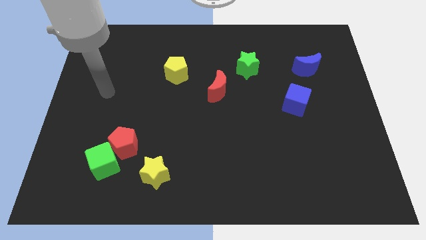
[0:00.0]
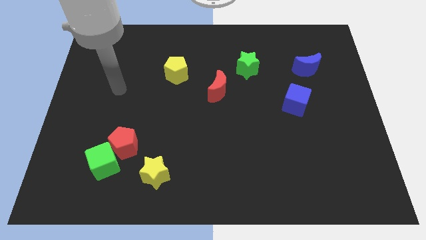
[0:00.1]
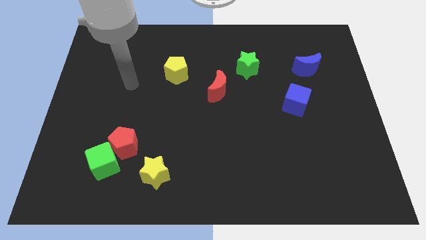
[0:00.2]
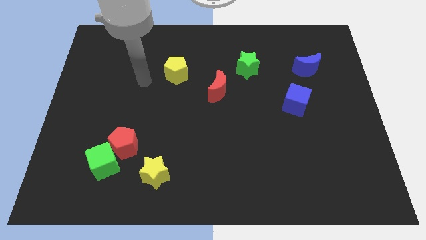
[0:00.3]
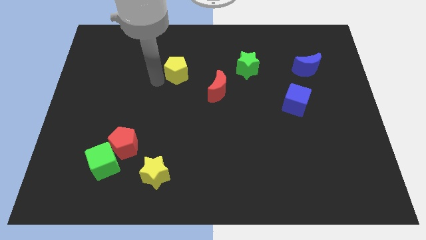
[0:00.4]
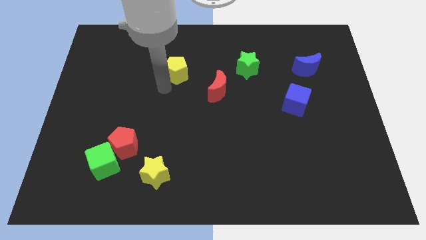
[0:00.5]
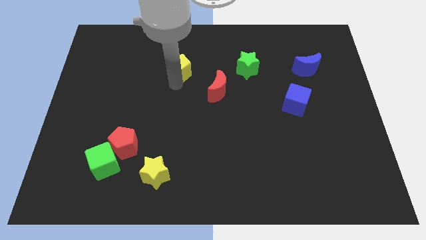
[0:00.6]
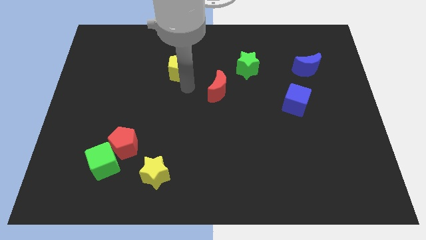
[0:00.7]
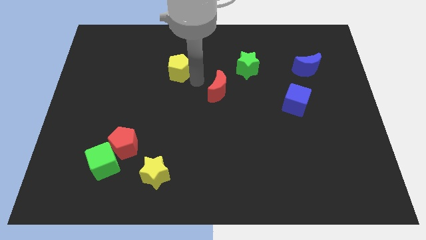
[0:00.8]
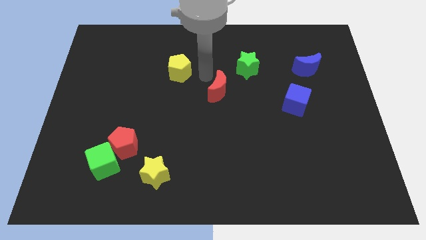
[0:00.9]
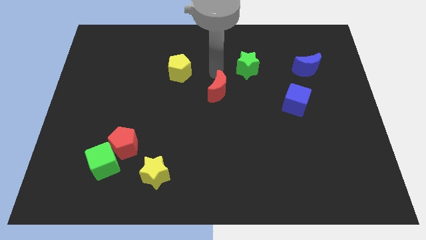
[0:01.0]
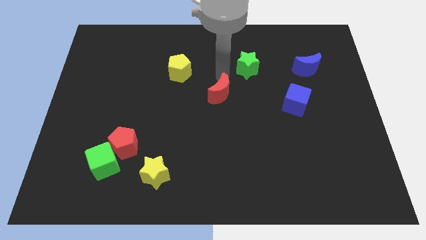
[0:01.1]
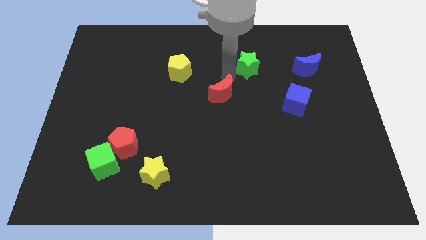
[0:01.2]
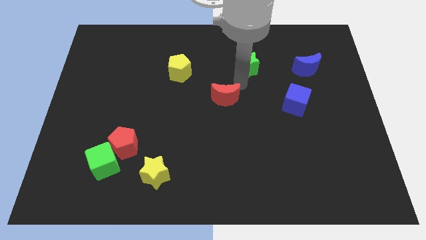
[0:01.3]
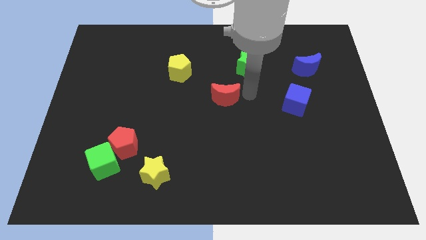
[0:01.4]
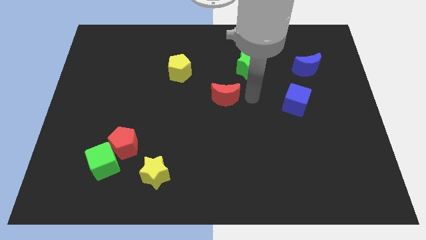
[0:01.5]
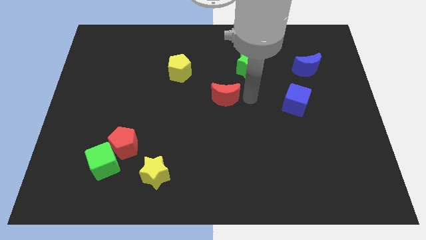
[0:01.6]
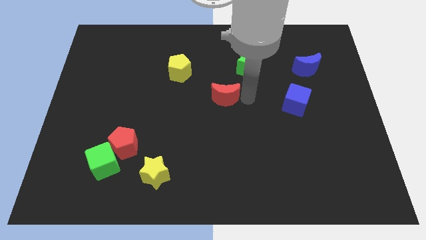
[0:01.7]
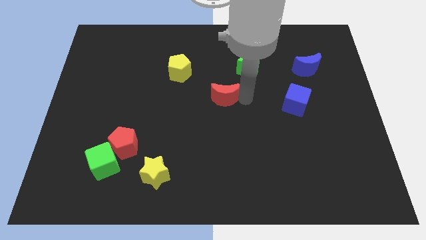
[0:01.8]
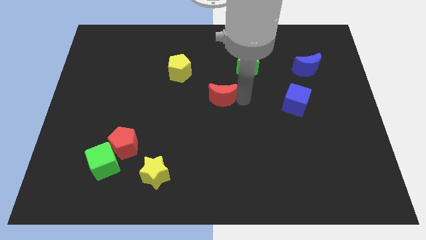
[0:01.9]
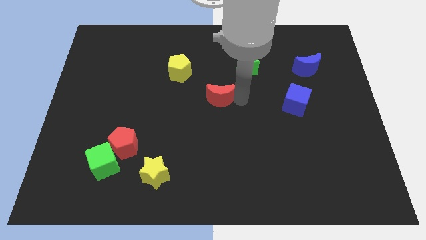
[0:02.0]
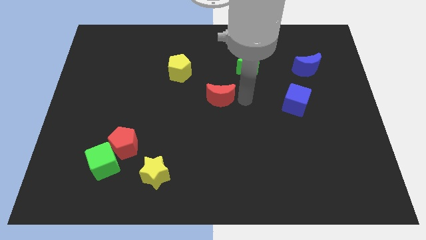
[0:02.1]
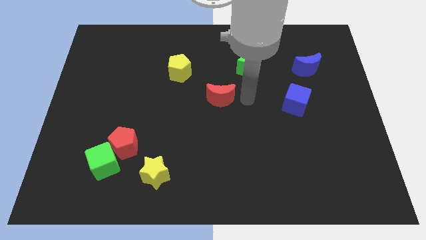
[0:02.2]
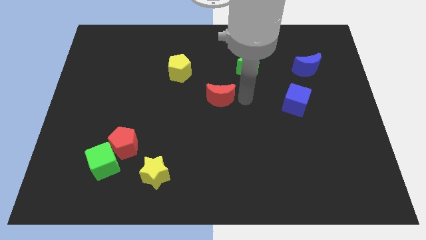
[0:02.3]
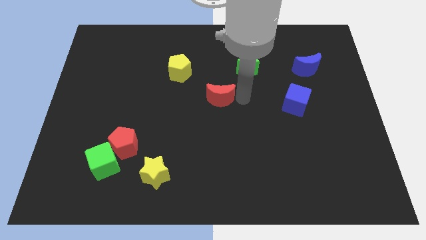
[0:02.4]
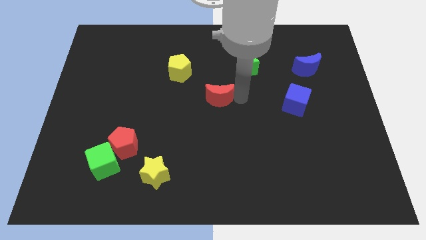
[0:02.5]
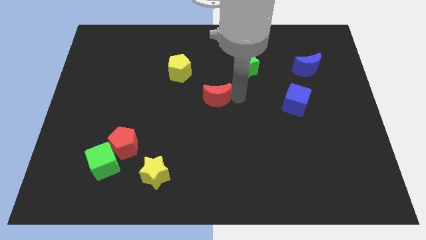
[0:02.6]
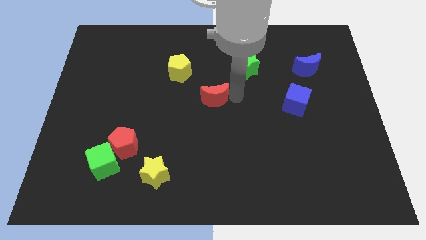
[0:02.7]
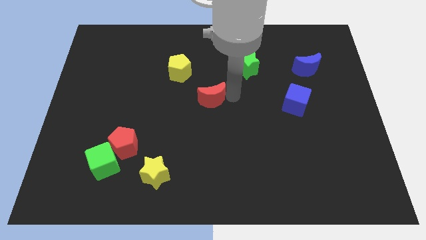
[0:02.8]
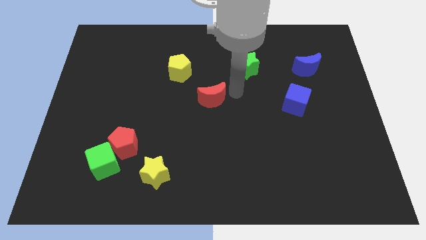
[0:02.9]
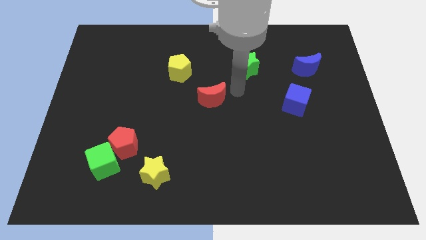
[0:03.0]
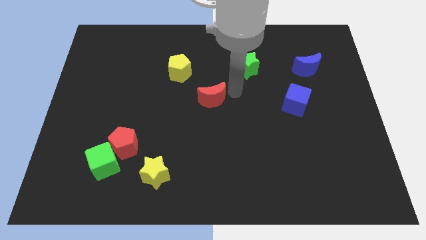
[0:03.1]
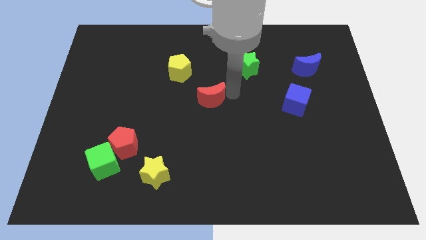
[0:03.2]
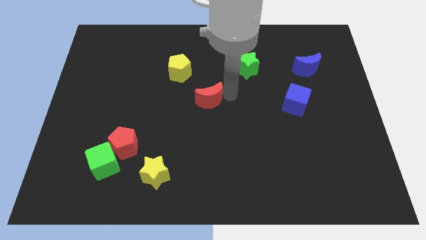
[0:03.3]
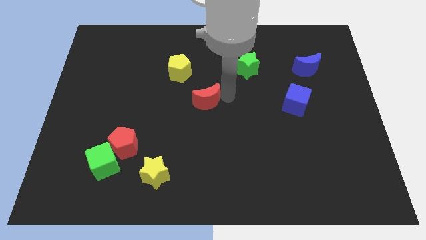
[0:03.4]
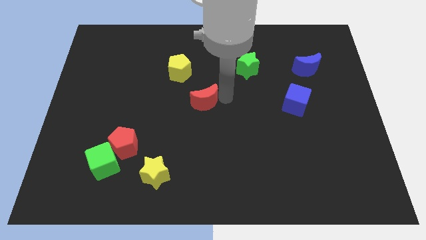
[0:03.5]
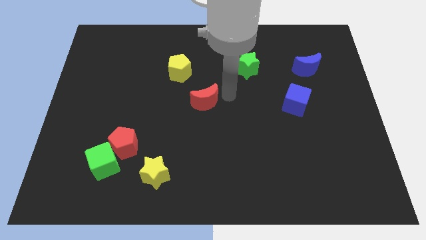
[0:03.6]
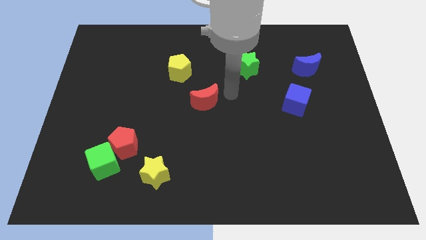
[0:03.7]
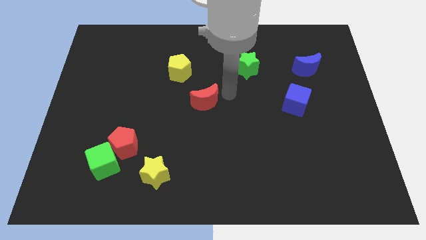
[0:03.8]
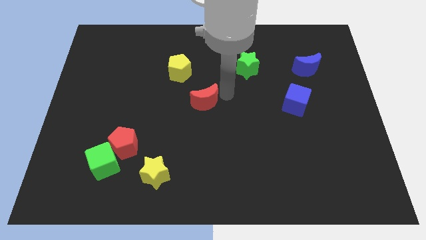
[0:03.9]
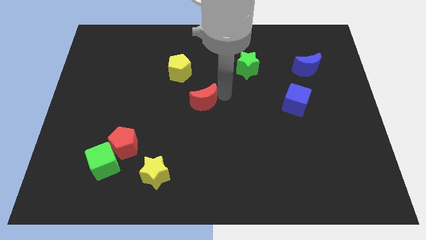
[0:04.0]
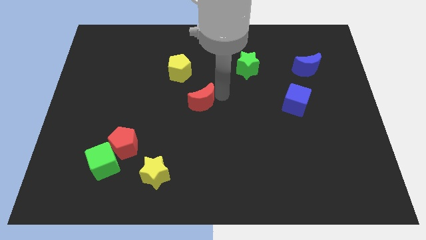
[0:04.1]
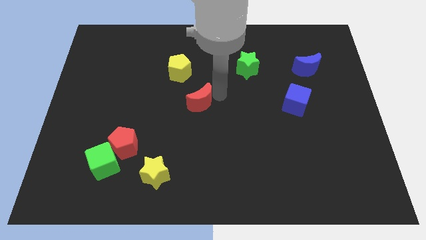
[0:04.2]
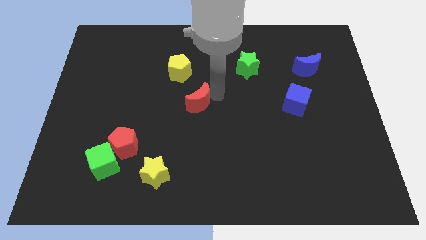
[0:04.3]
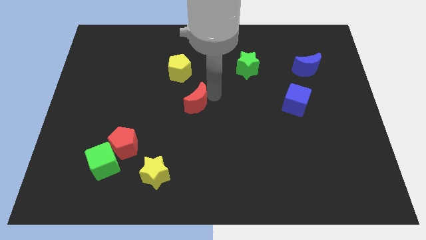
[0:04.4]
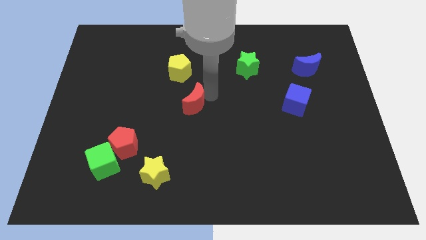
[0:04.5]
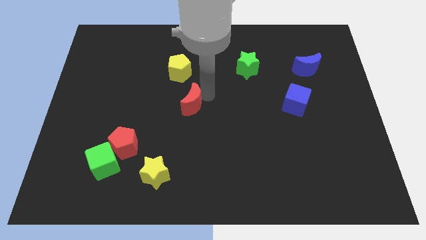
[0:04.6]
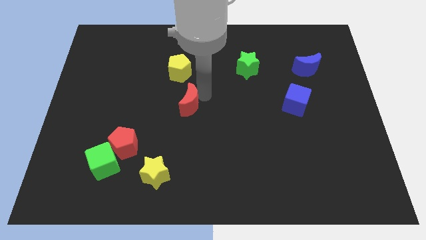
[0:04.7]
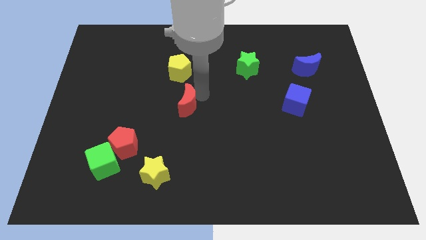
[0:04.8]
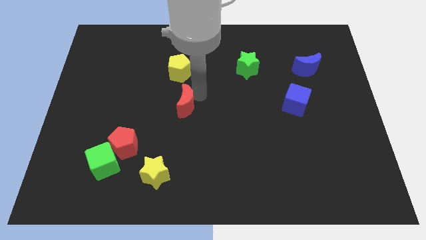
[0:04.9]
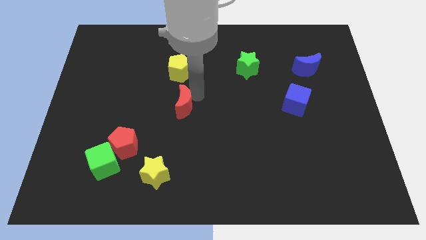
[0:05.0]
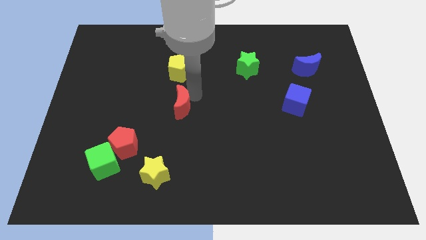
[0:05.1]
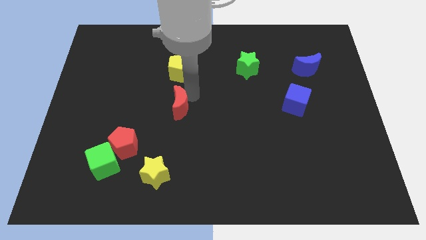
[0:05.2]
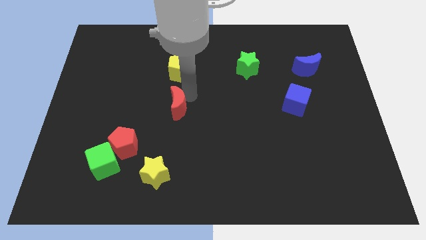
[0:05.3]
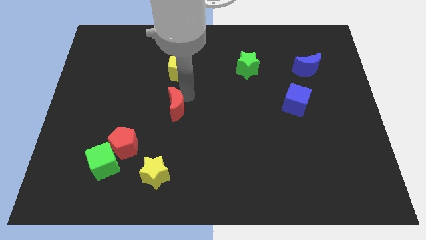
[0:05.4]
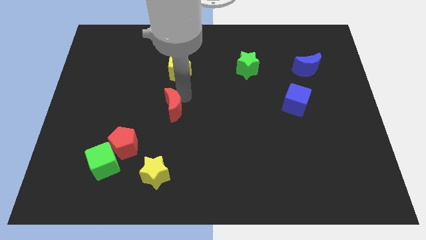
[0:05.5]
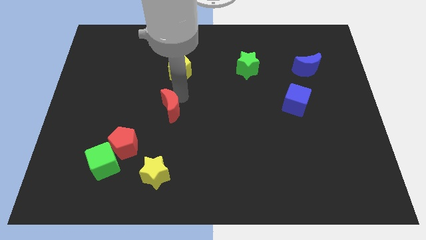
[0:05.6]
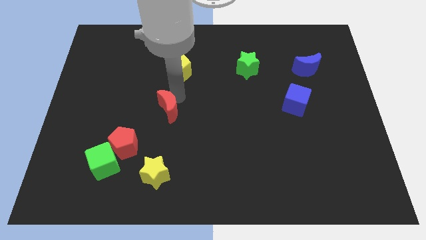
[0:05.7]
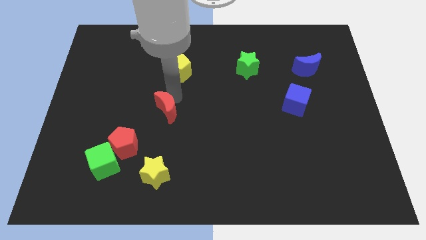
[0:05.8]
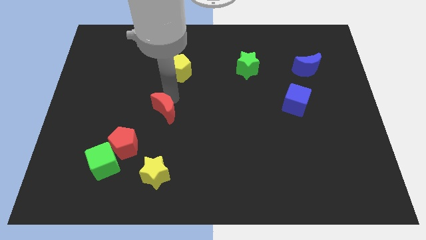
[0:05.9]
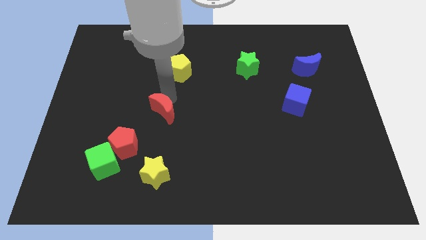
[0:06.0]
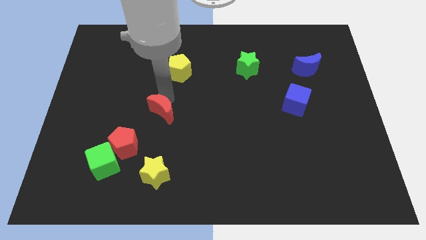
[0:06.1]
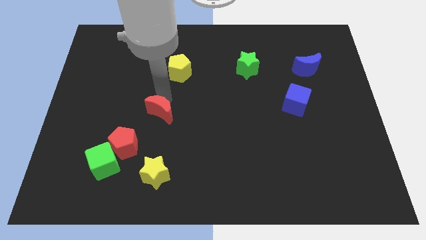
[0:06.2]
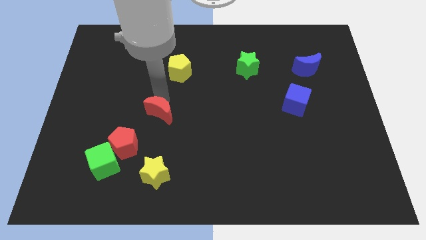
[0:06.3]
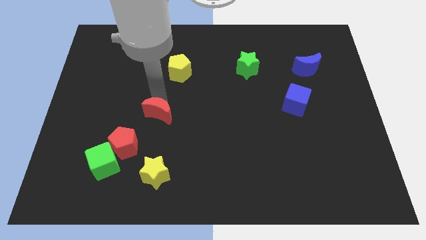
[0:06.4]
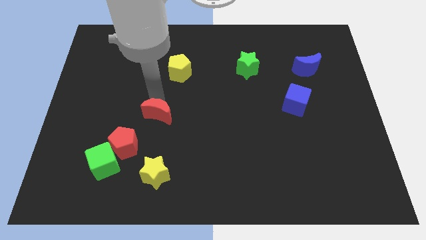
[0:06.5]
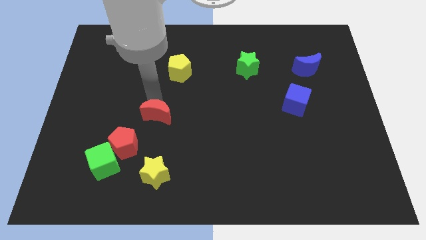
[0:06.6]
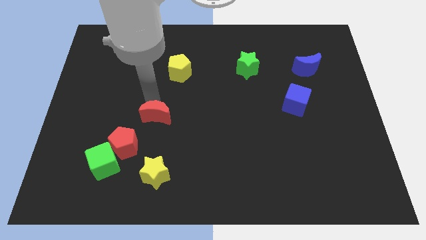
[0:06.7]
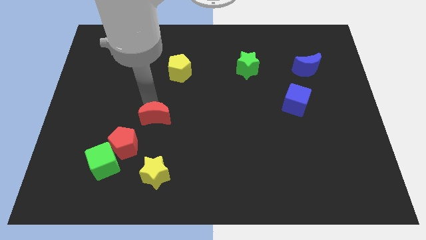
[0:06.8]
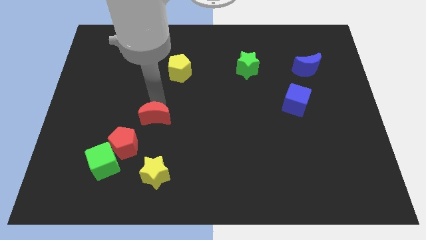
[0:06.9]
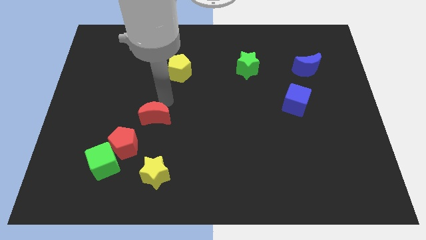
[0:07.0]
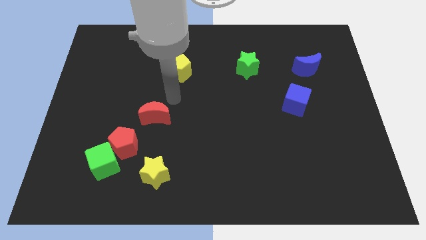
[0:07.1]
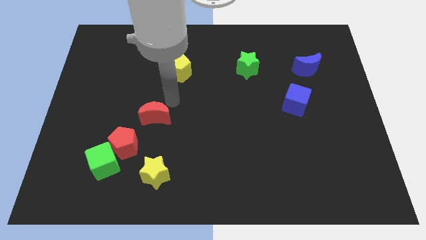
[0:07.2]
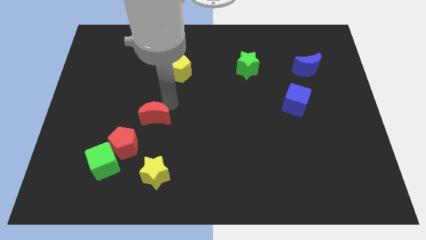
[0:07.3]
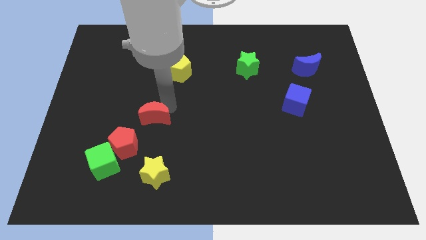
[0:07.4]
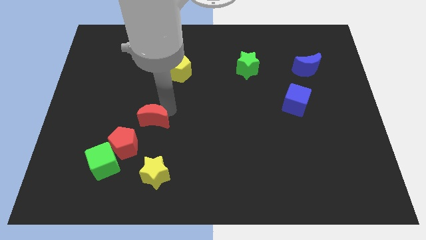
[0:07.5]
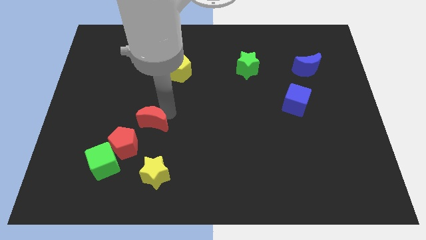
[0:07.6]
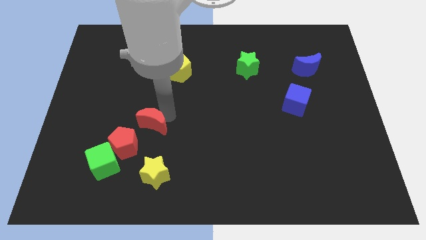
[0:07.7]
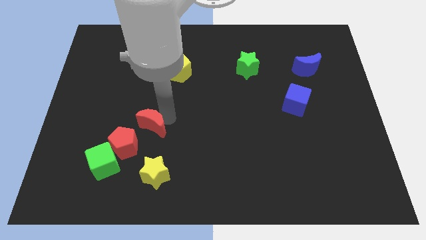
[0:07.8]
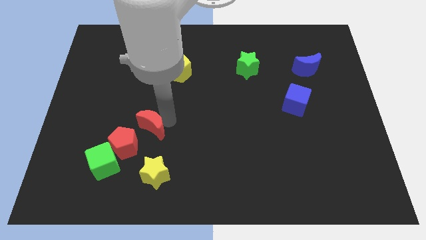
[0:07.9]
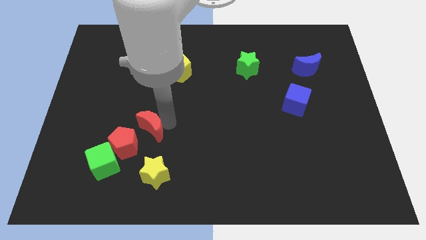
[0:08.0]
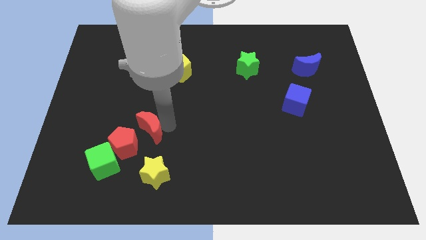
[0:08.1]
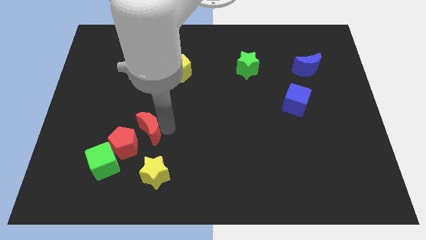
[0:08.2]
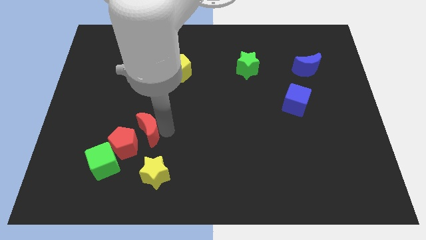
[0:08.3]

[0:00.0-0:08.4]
push the red moon next to the red pentagon
